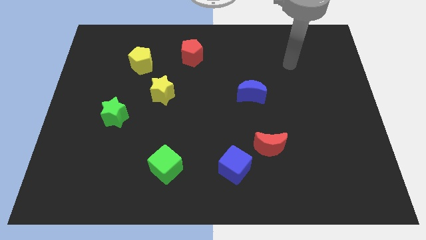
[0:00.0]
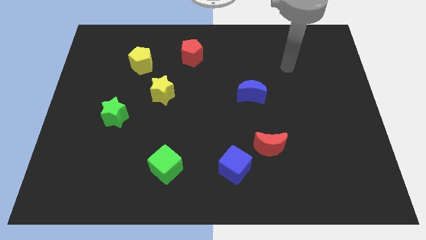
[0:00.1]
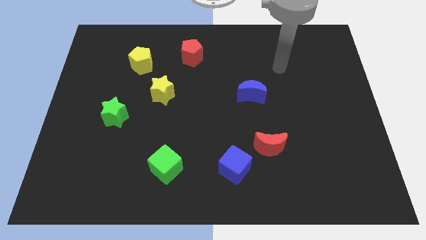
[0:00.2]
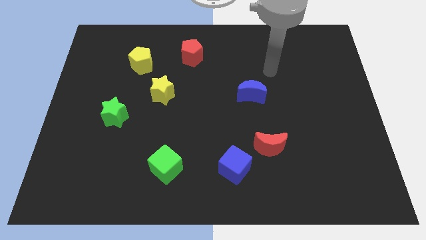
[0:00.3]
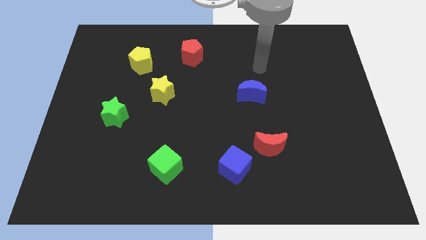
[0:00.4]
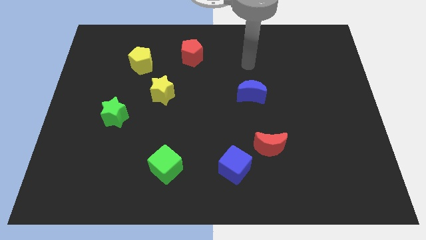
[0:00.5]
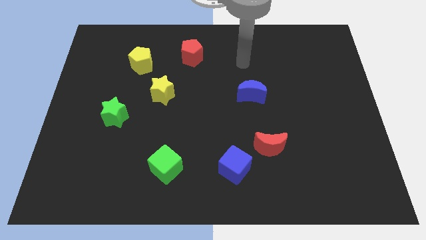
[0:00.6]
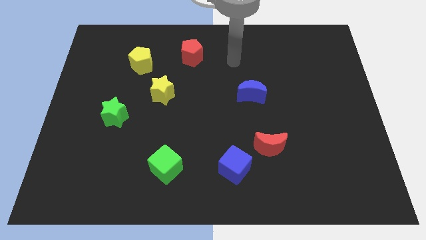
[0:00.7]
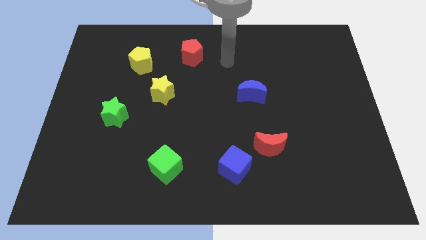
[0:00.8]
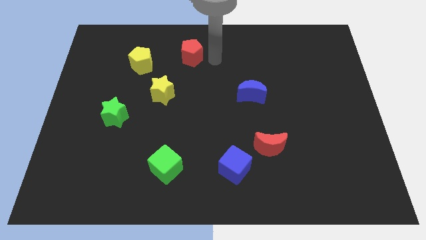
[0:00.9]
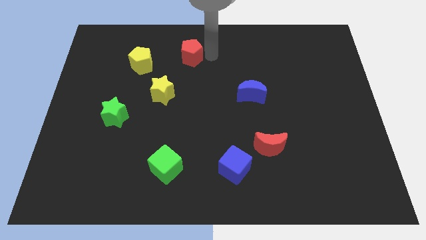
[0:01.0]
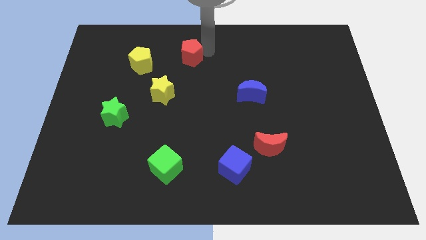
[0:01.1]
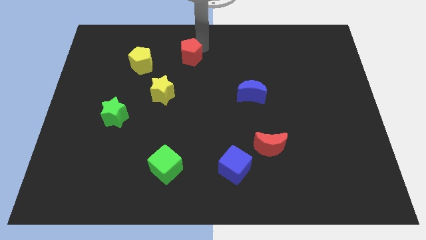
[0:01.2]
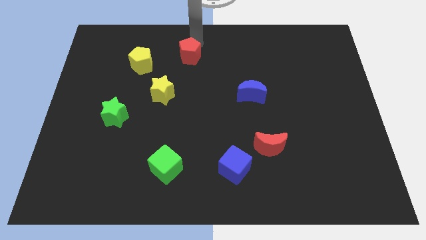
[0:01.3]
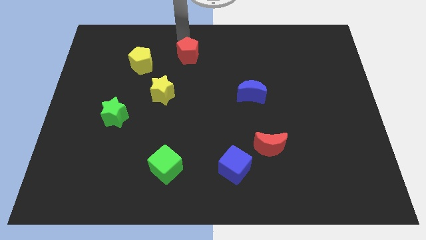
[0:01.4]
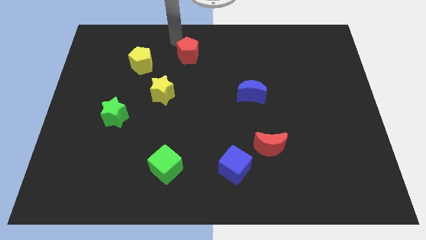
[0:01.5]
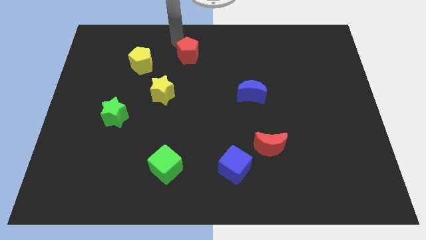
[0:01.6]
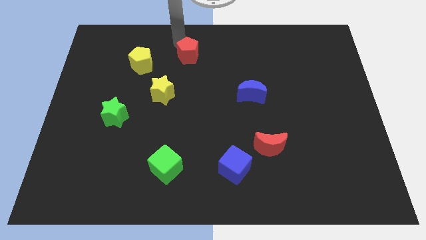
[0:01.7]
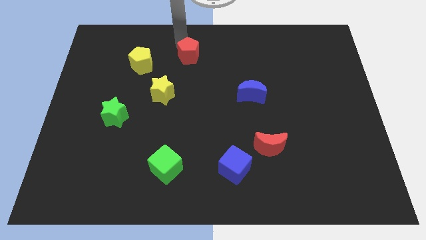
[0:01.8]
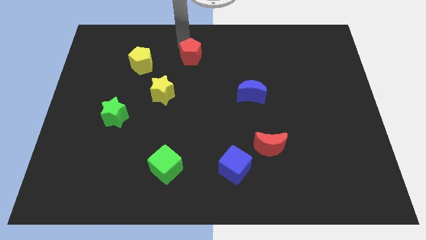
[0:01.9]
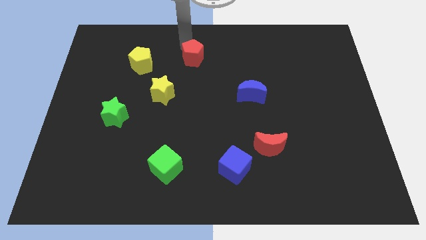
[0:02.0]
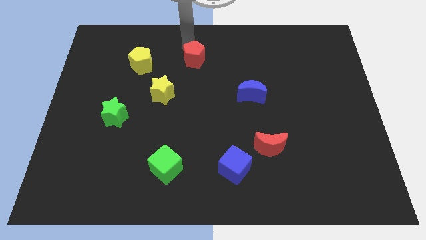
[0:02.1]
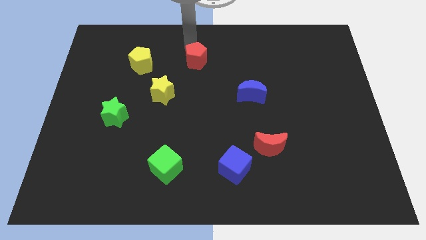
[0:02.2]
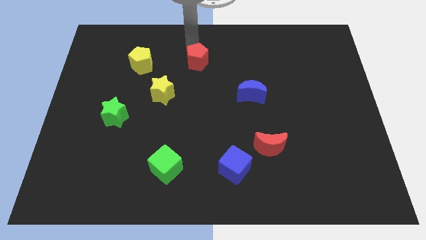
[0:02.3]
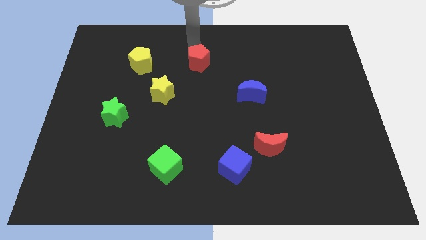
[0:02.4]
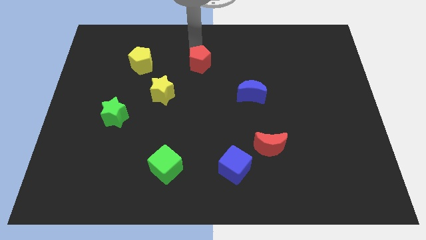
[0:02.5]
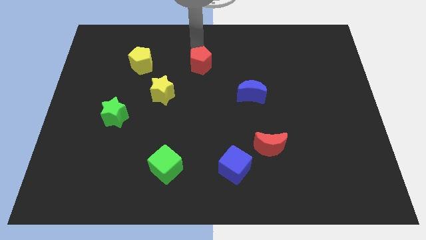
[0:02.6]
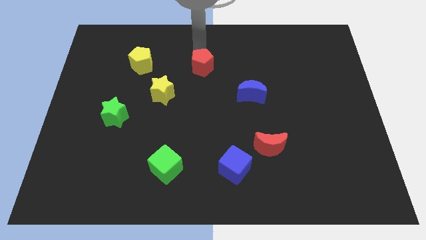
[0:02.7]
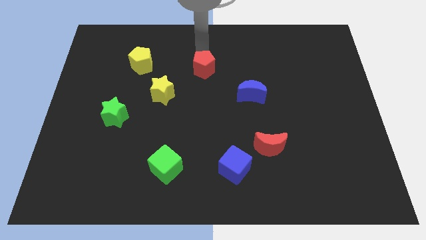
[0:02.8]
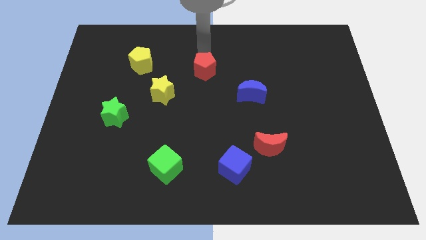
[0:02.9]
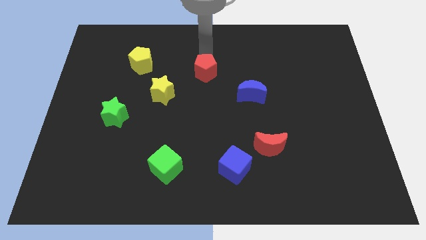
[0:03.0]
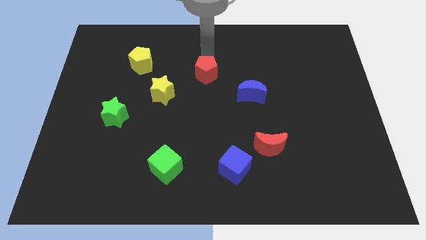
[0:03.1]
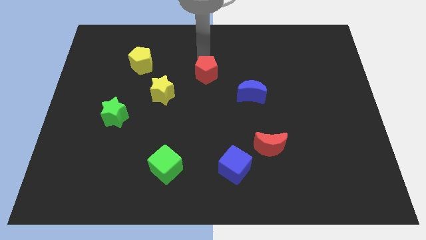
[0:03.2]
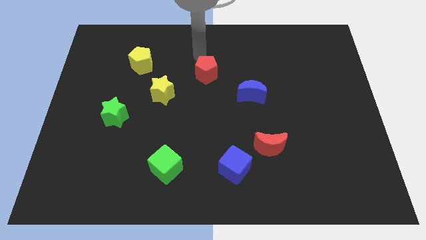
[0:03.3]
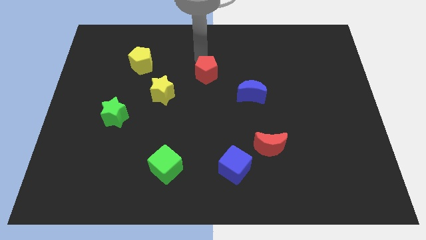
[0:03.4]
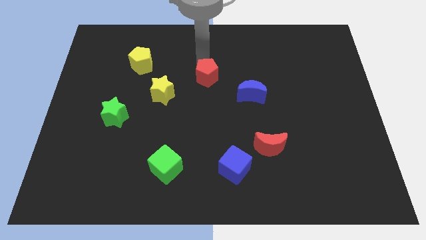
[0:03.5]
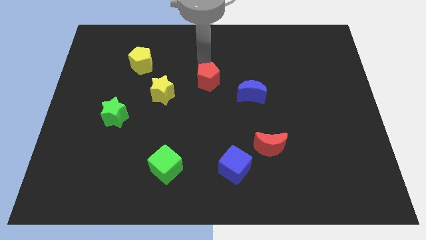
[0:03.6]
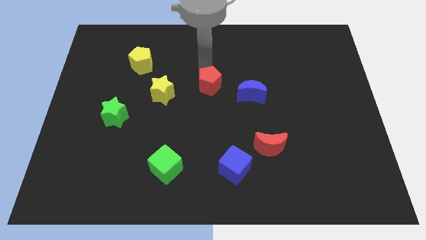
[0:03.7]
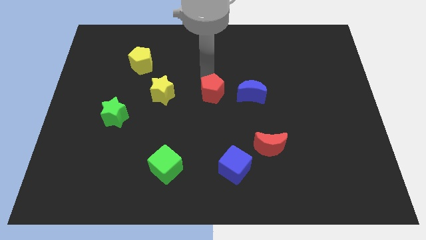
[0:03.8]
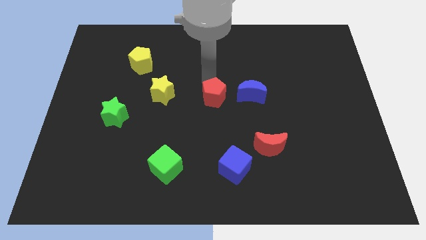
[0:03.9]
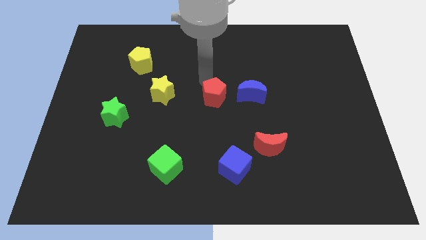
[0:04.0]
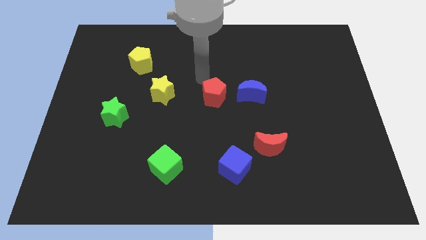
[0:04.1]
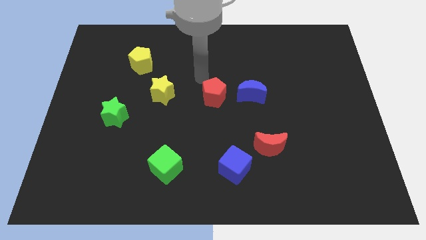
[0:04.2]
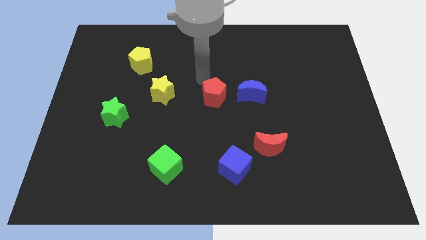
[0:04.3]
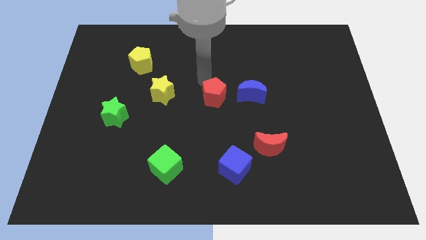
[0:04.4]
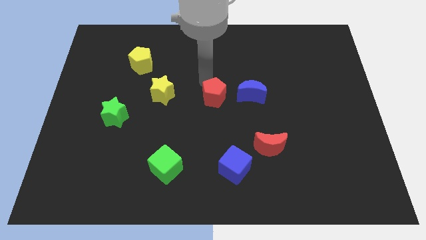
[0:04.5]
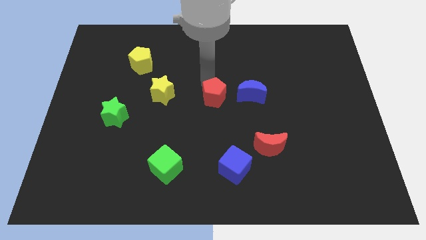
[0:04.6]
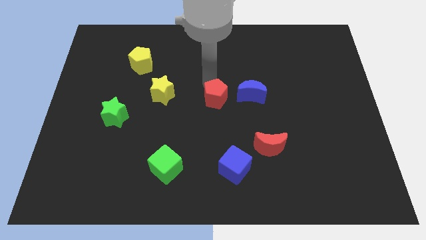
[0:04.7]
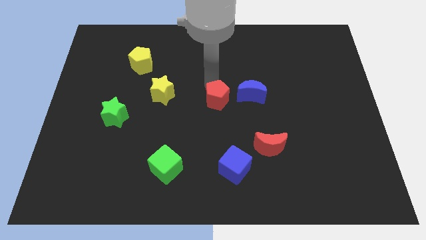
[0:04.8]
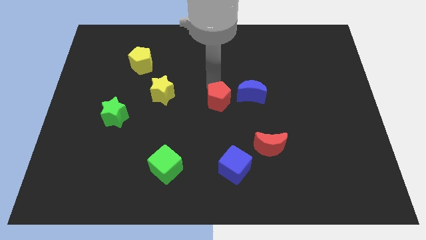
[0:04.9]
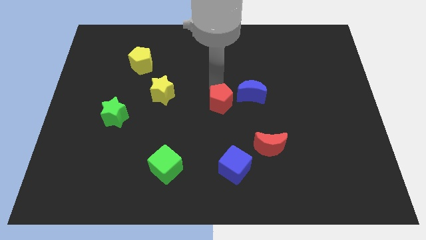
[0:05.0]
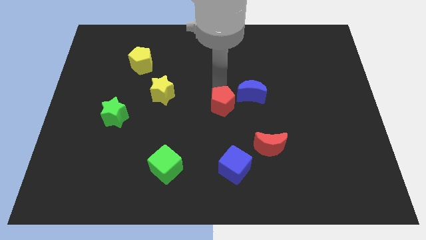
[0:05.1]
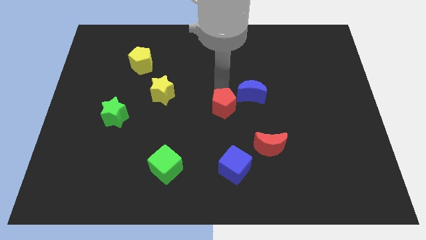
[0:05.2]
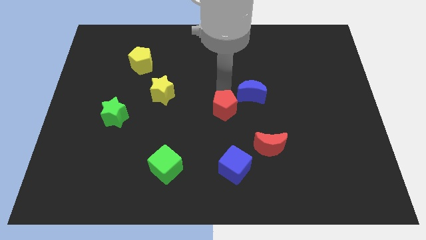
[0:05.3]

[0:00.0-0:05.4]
move the red pentagon to the top side of the blue cube

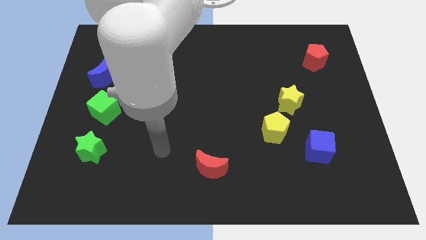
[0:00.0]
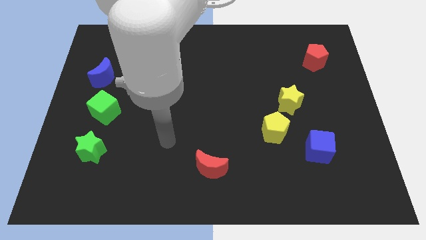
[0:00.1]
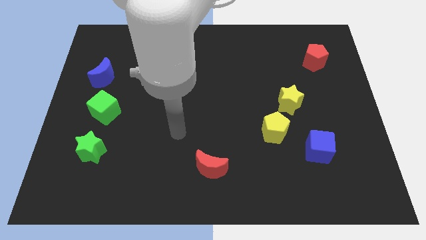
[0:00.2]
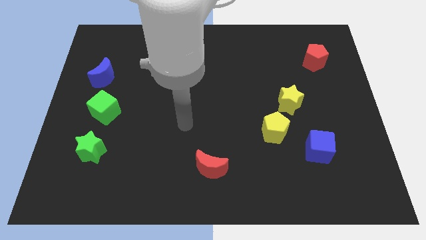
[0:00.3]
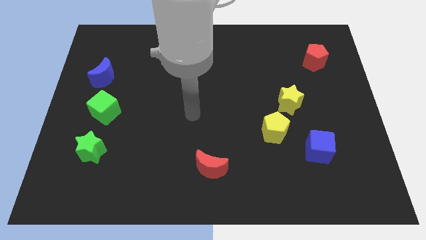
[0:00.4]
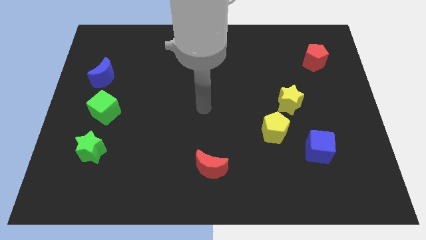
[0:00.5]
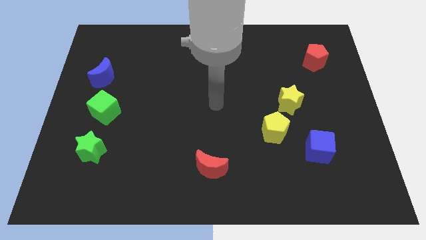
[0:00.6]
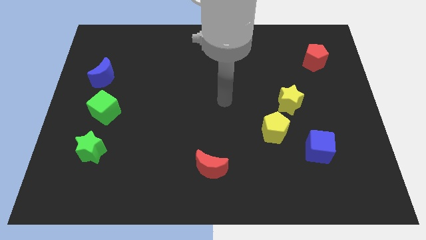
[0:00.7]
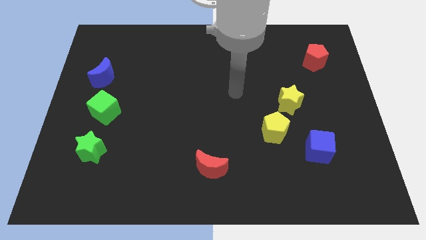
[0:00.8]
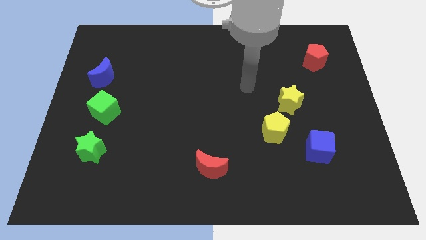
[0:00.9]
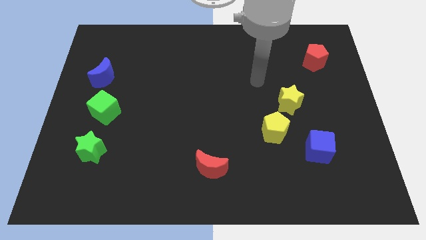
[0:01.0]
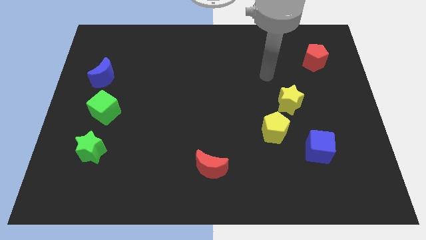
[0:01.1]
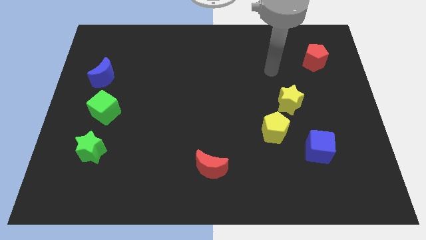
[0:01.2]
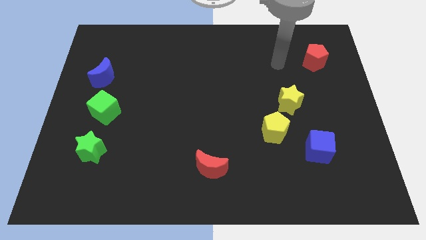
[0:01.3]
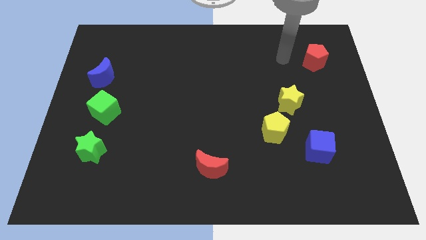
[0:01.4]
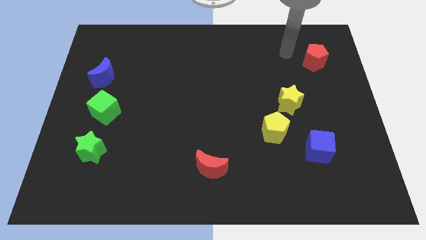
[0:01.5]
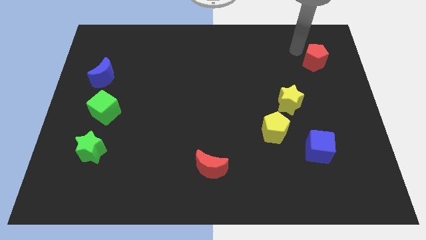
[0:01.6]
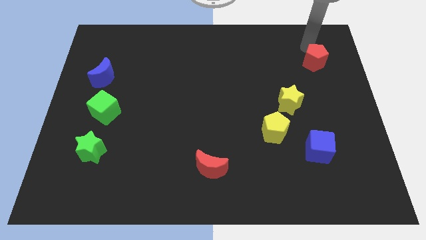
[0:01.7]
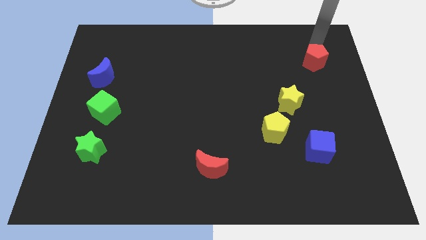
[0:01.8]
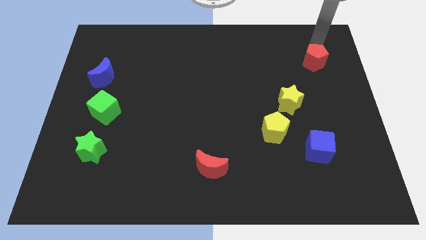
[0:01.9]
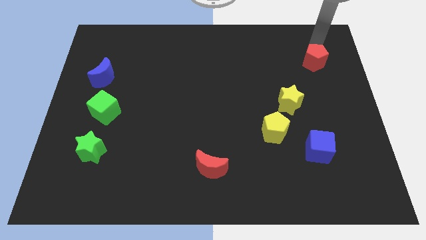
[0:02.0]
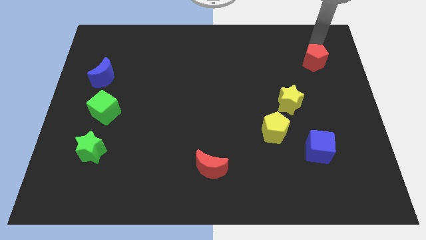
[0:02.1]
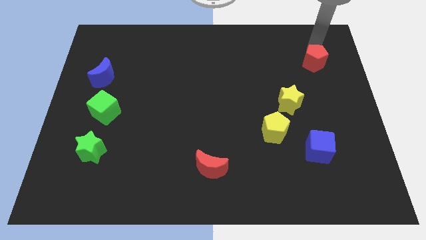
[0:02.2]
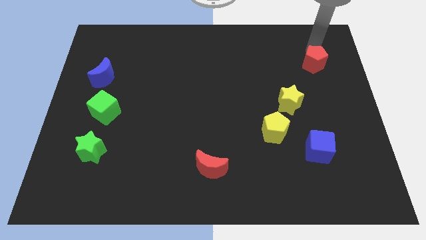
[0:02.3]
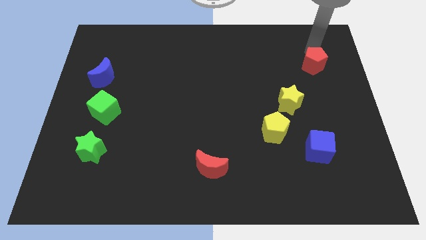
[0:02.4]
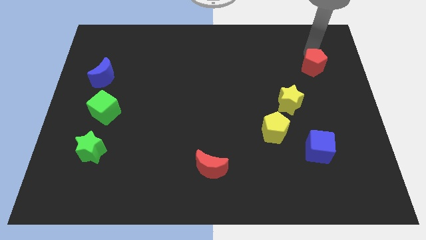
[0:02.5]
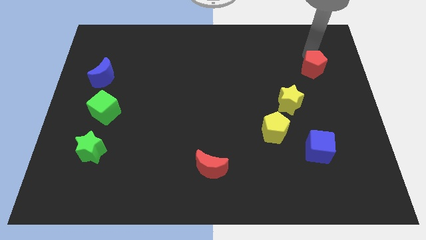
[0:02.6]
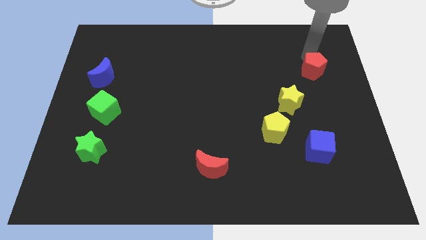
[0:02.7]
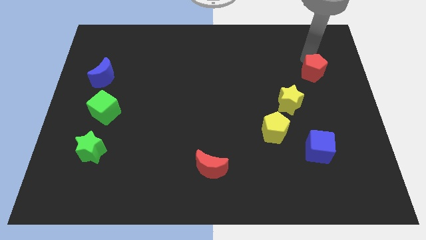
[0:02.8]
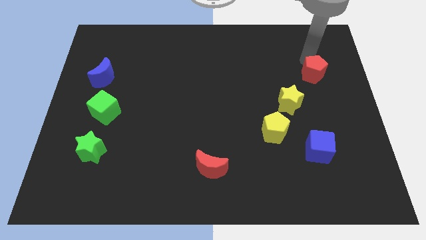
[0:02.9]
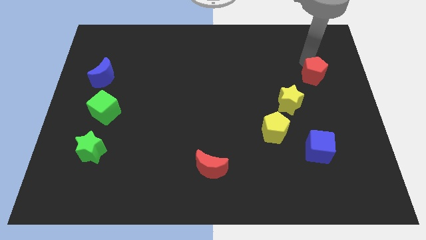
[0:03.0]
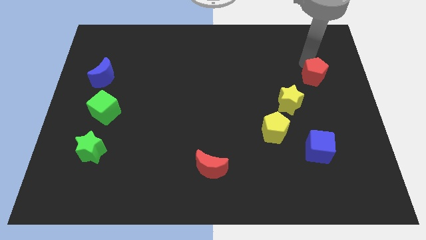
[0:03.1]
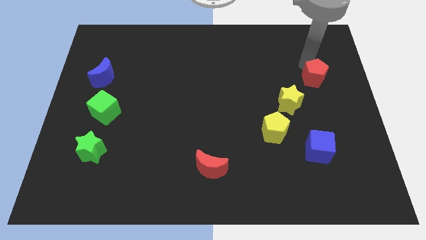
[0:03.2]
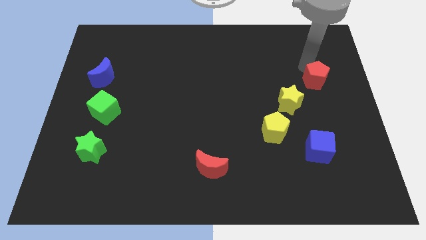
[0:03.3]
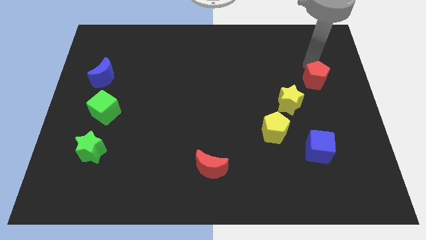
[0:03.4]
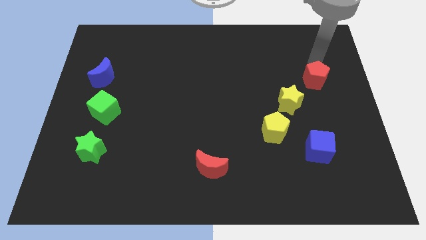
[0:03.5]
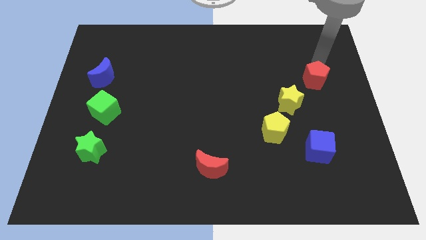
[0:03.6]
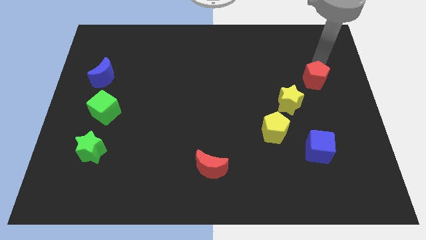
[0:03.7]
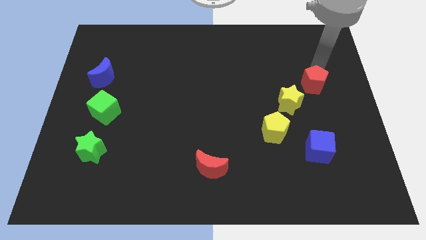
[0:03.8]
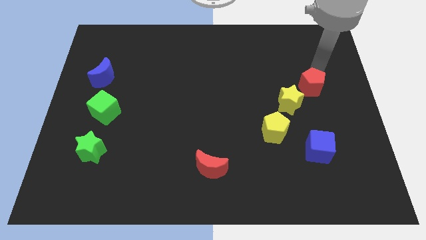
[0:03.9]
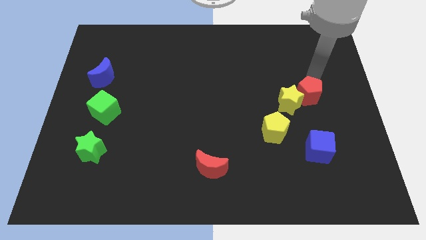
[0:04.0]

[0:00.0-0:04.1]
push the red pentagon to the top side of the blue cube
